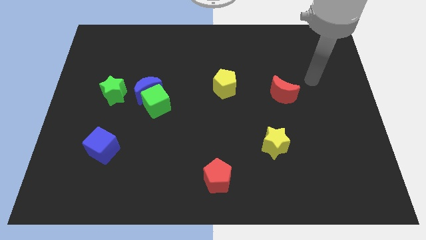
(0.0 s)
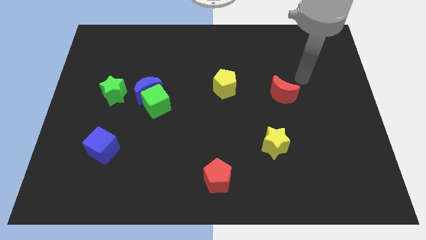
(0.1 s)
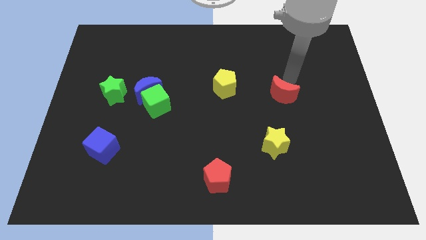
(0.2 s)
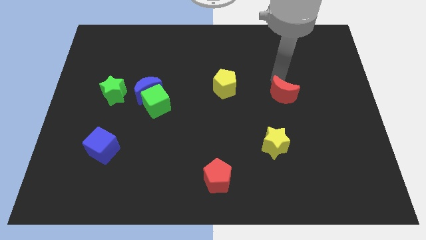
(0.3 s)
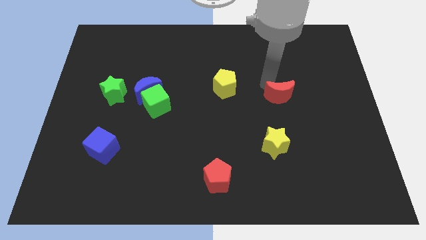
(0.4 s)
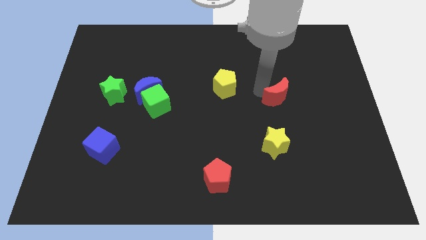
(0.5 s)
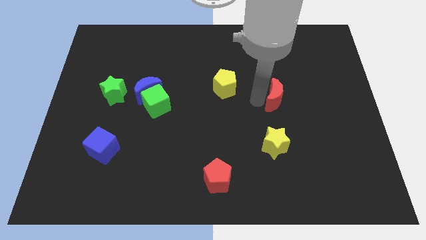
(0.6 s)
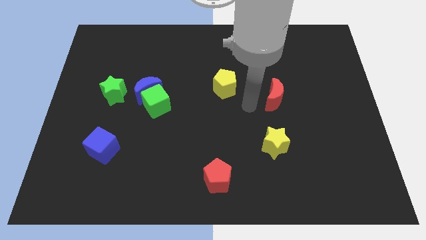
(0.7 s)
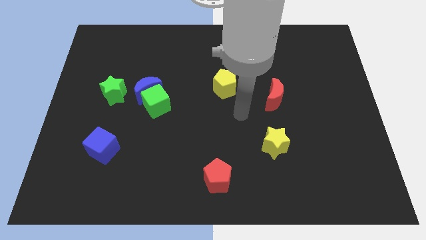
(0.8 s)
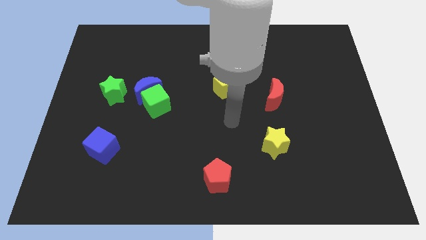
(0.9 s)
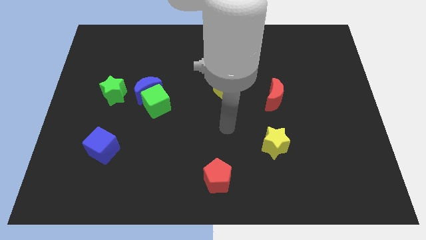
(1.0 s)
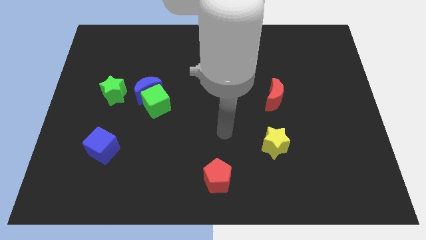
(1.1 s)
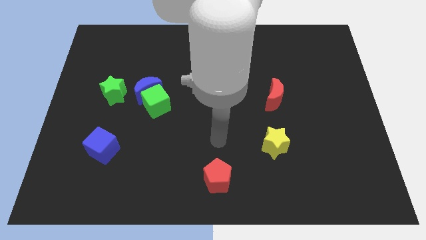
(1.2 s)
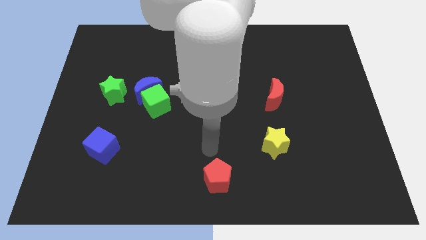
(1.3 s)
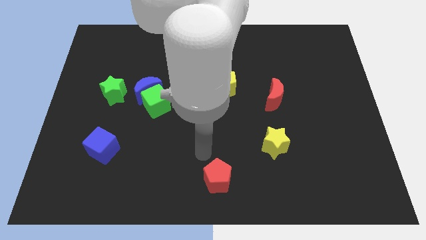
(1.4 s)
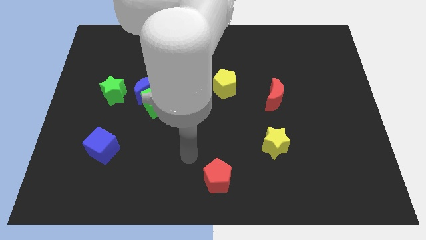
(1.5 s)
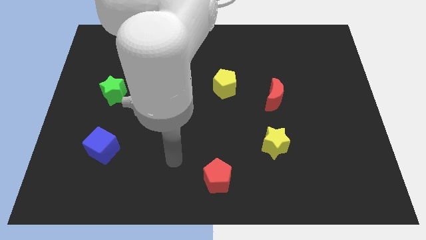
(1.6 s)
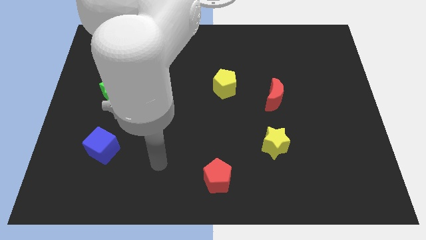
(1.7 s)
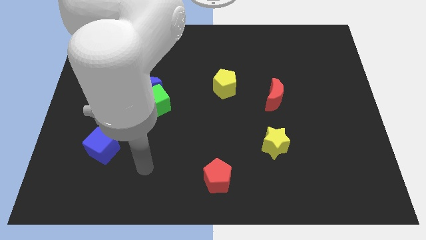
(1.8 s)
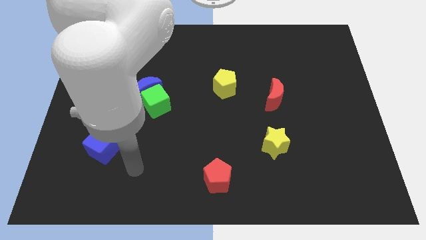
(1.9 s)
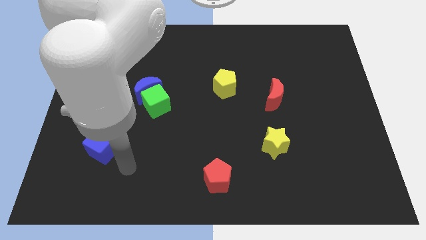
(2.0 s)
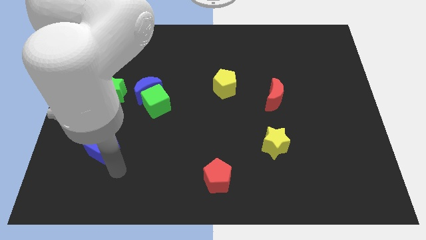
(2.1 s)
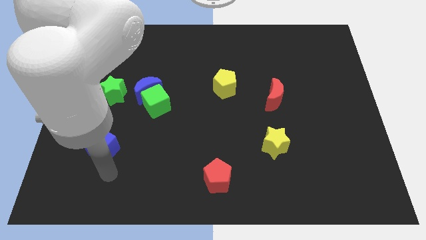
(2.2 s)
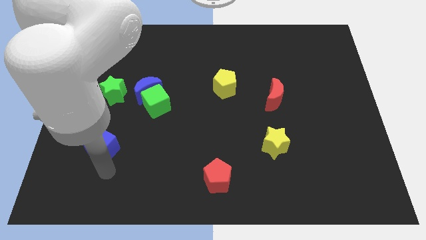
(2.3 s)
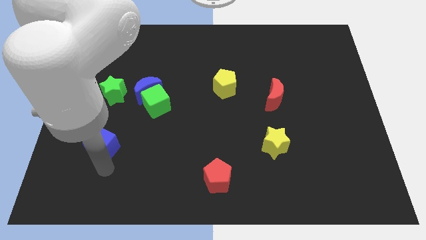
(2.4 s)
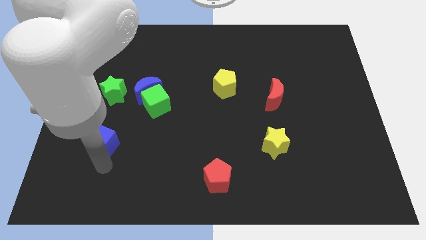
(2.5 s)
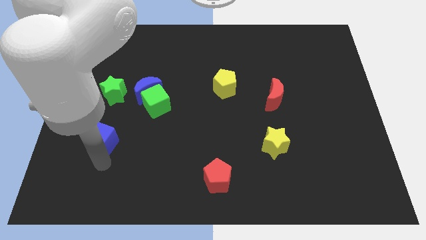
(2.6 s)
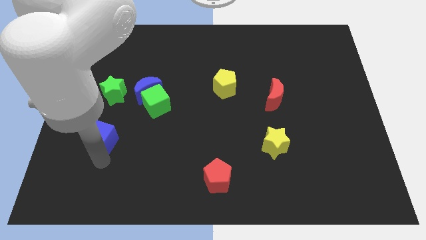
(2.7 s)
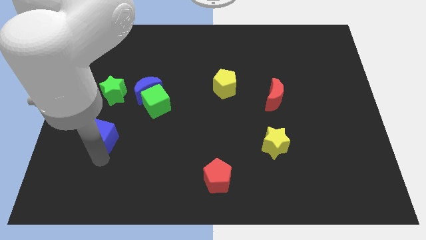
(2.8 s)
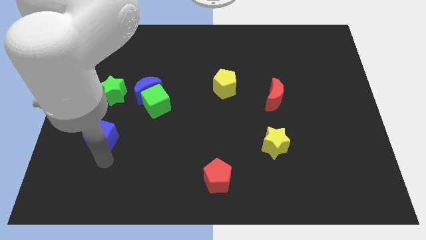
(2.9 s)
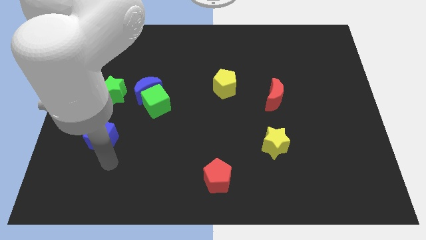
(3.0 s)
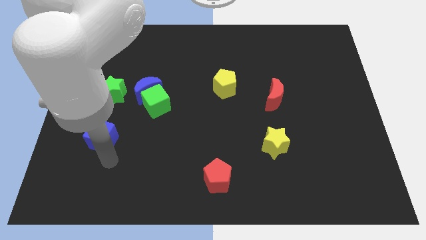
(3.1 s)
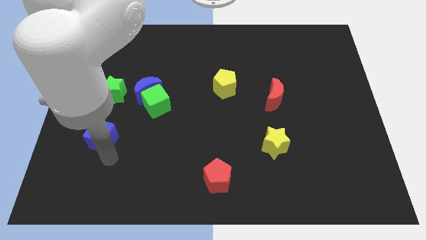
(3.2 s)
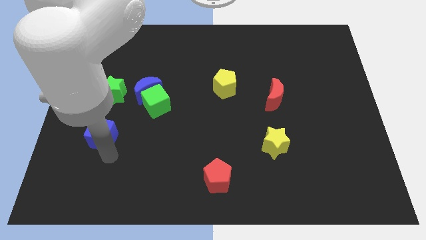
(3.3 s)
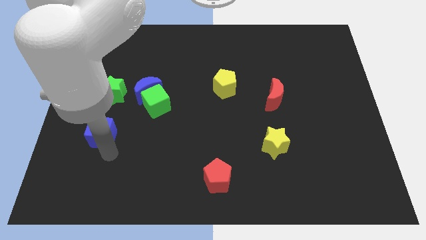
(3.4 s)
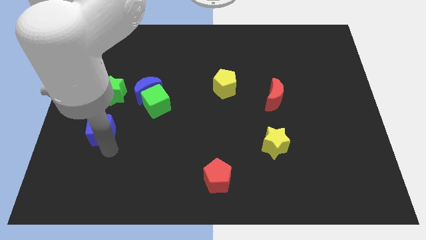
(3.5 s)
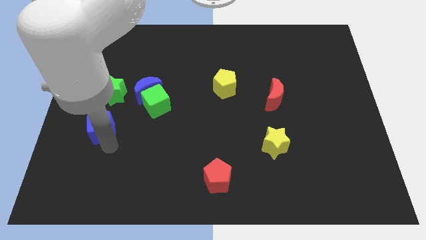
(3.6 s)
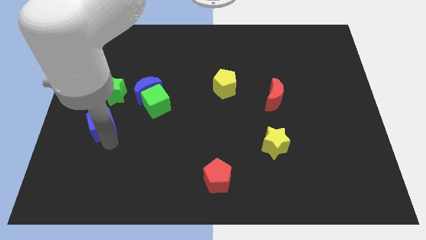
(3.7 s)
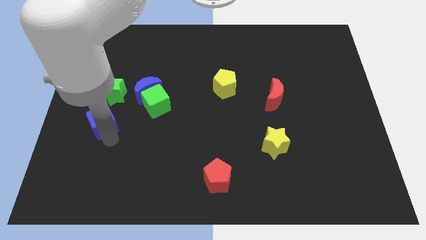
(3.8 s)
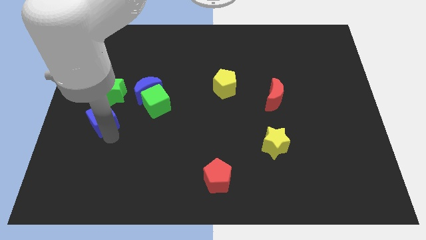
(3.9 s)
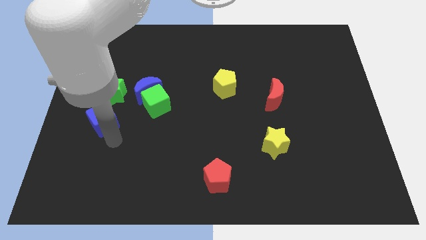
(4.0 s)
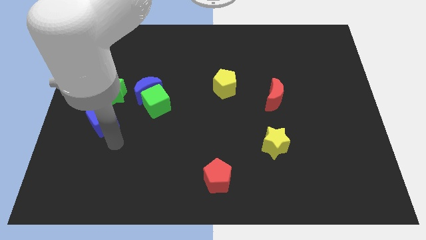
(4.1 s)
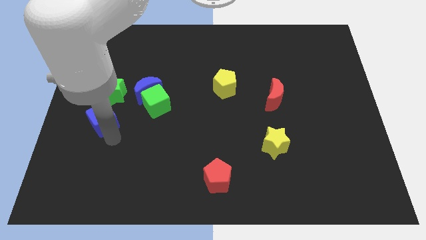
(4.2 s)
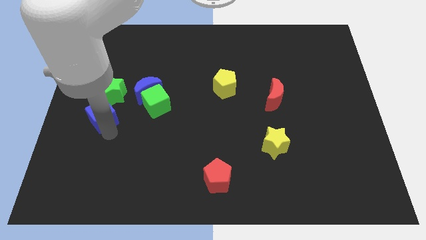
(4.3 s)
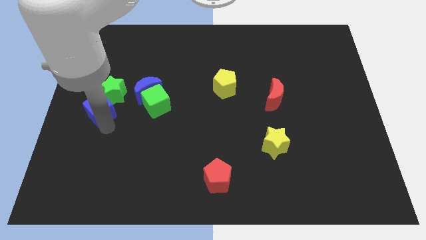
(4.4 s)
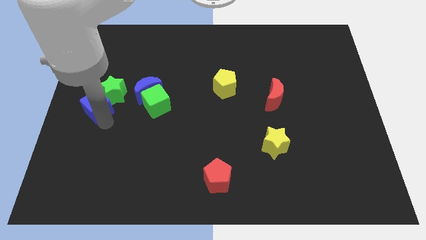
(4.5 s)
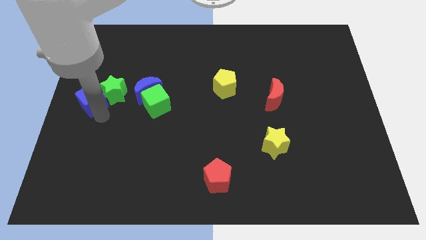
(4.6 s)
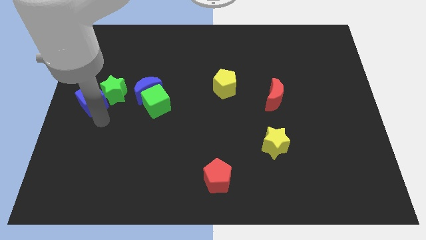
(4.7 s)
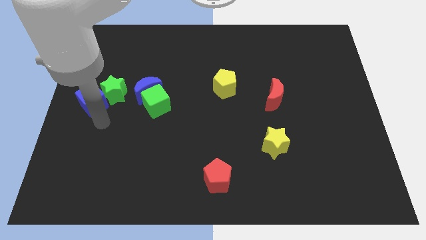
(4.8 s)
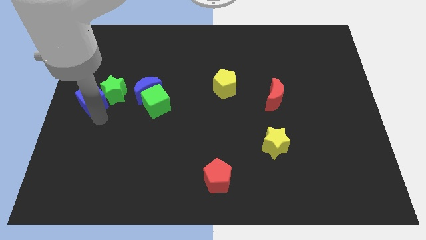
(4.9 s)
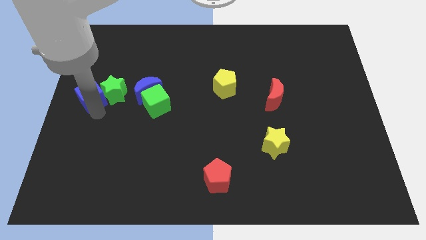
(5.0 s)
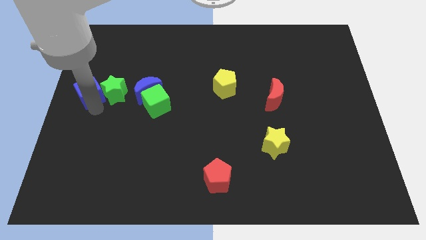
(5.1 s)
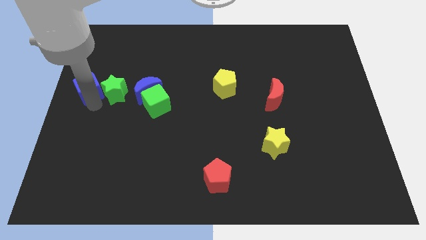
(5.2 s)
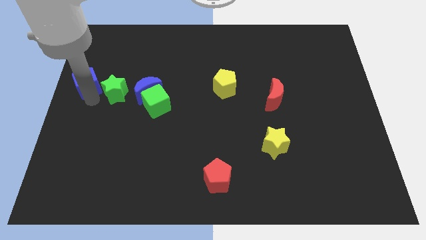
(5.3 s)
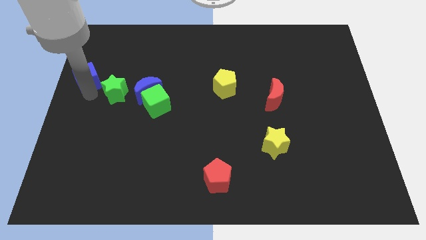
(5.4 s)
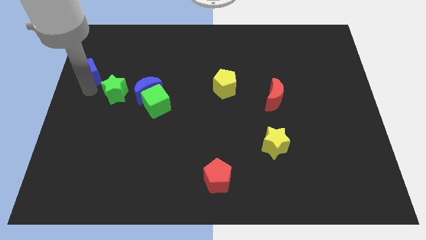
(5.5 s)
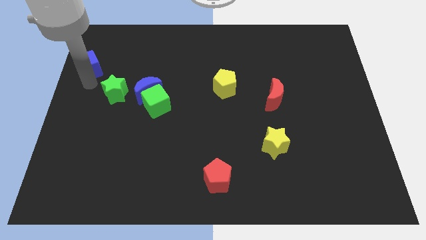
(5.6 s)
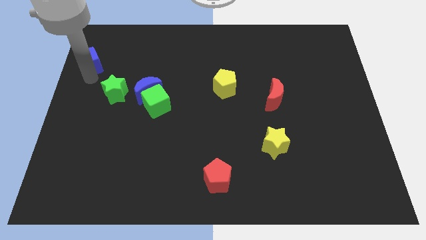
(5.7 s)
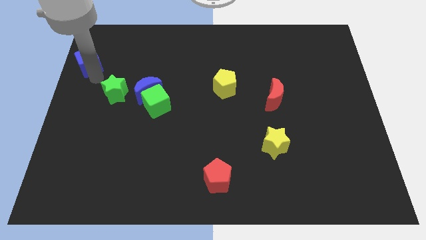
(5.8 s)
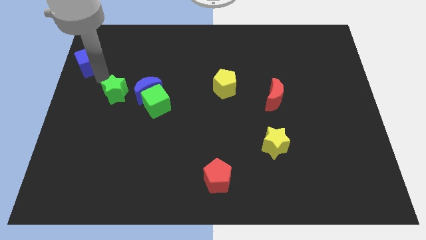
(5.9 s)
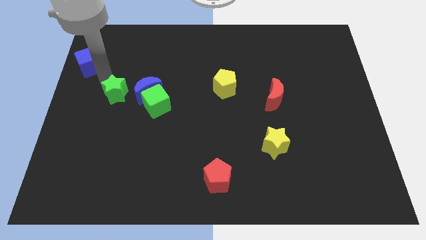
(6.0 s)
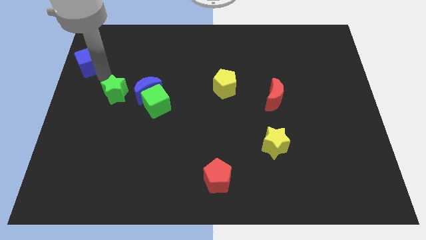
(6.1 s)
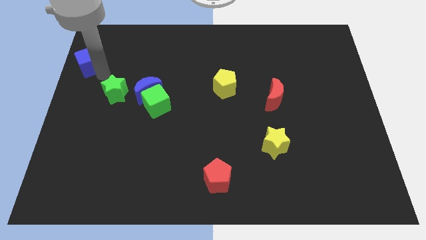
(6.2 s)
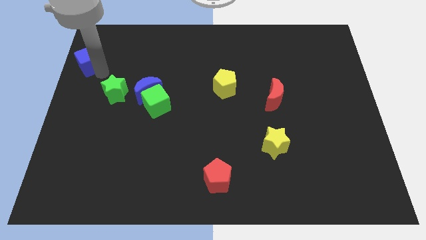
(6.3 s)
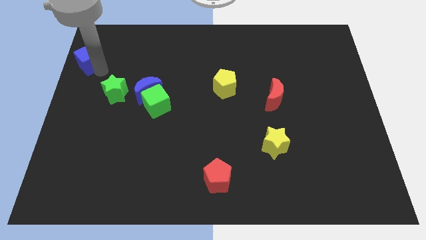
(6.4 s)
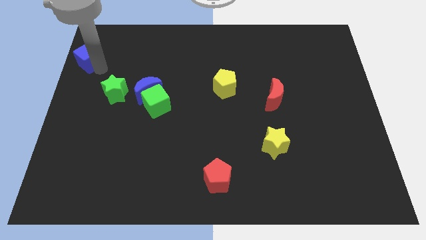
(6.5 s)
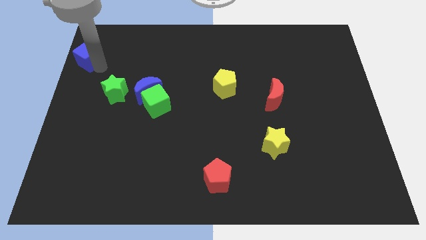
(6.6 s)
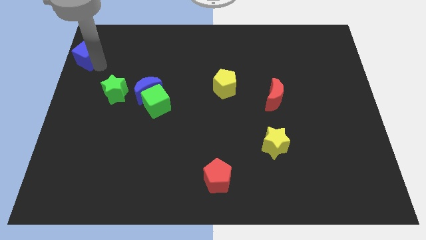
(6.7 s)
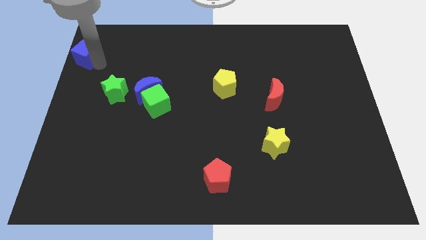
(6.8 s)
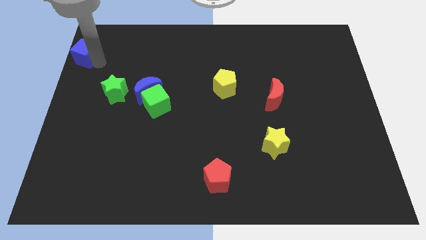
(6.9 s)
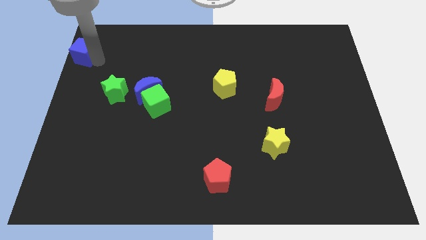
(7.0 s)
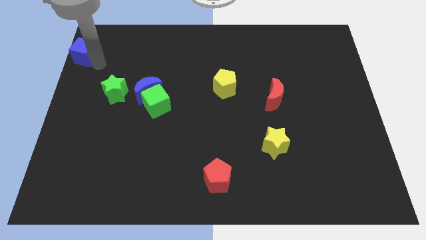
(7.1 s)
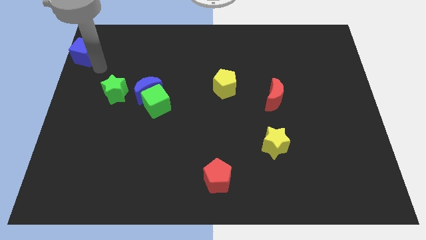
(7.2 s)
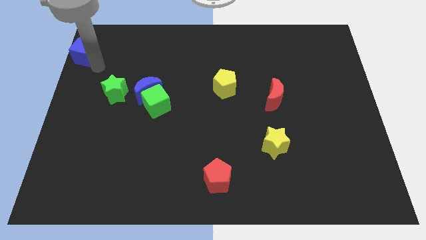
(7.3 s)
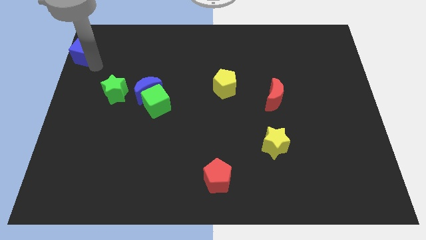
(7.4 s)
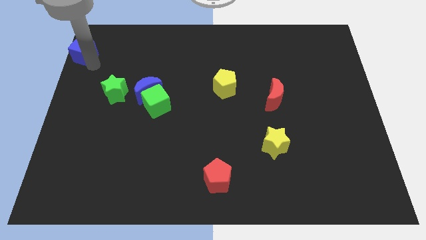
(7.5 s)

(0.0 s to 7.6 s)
slide the blue cube to the top left of the board
